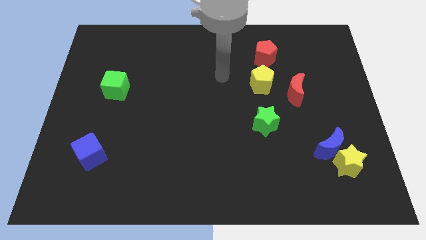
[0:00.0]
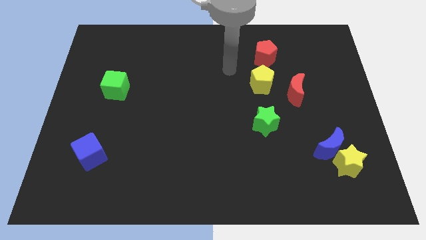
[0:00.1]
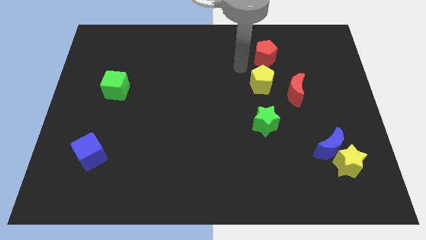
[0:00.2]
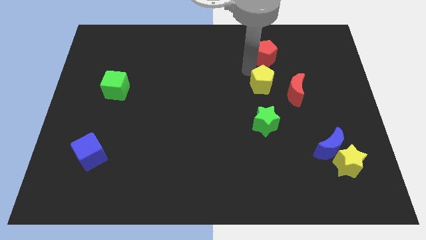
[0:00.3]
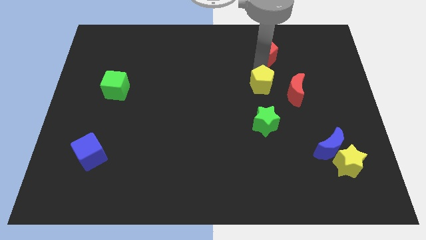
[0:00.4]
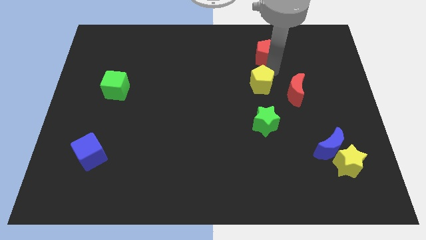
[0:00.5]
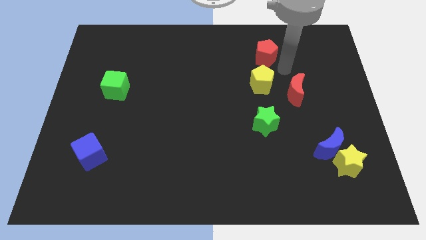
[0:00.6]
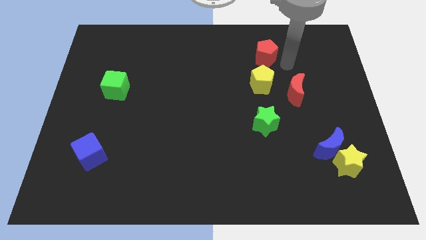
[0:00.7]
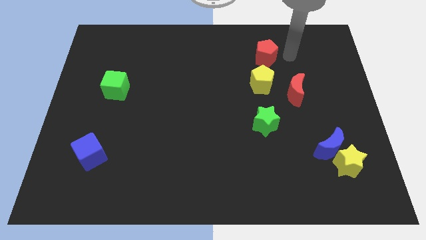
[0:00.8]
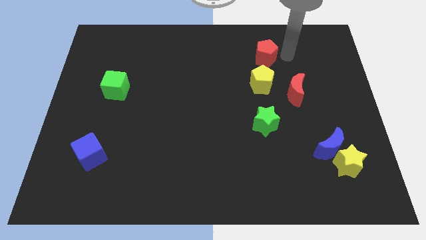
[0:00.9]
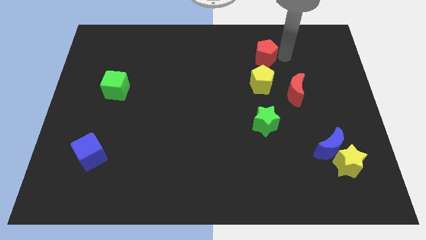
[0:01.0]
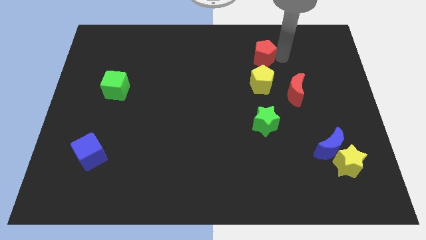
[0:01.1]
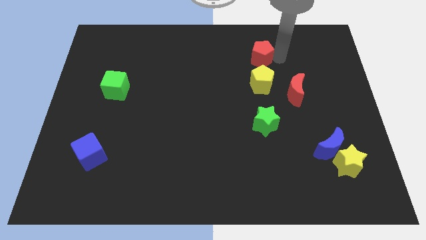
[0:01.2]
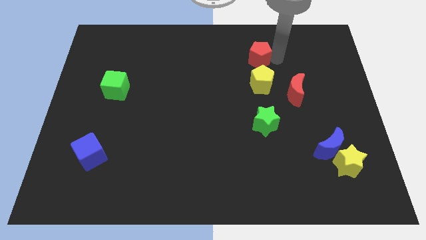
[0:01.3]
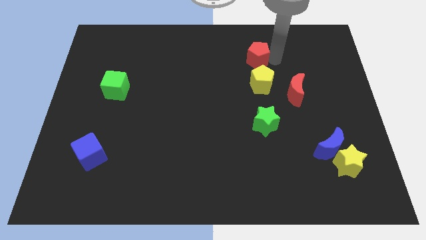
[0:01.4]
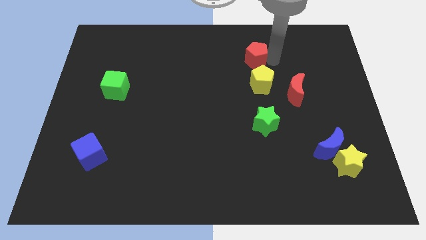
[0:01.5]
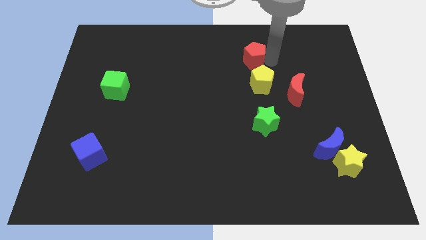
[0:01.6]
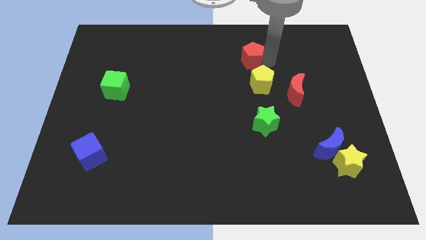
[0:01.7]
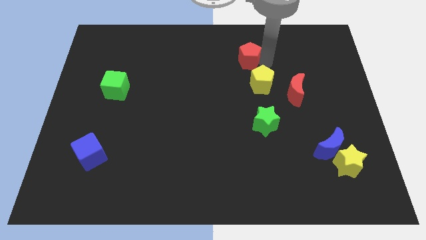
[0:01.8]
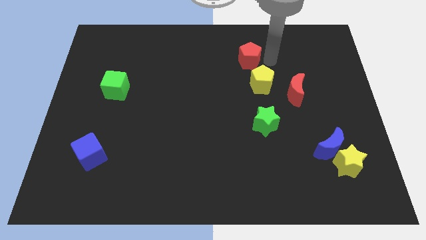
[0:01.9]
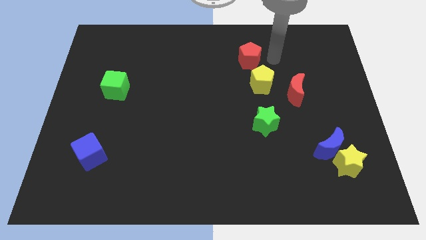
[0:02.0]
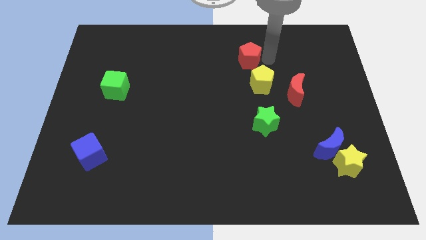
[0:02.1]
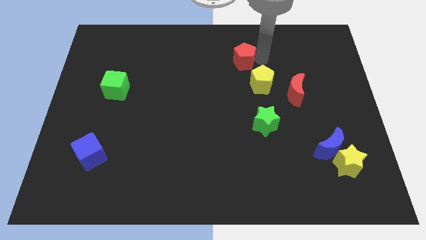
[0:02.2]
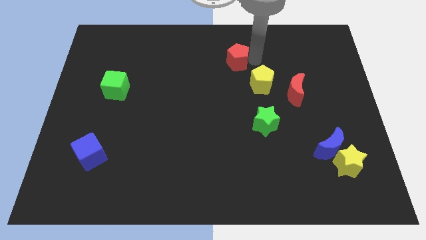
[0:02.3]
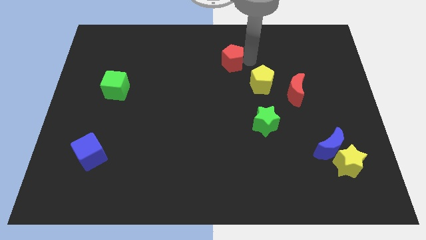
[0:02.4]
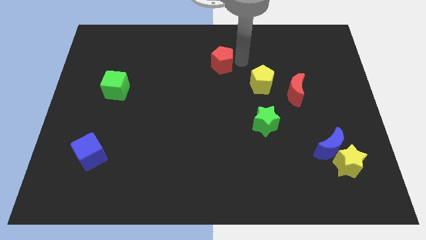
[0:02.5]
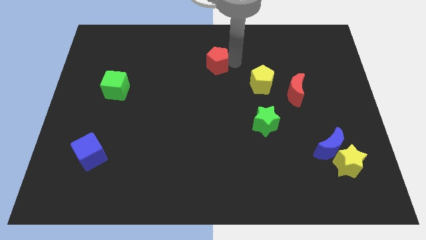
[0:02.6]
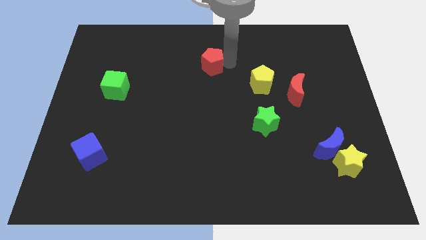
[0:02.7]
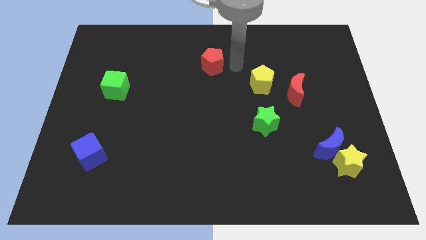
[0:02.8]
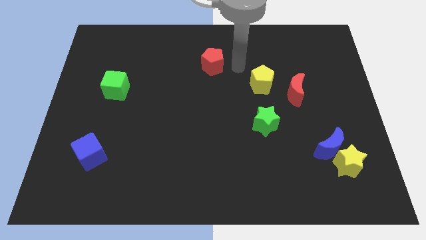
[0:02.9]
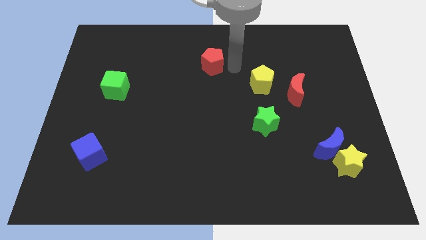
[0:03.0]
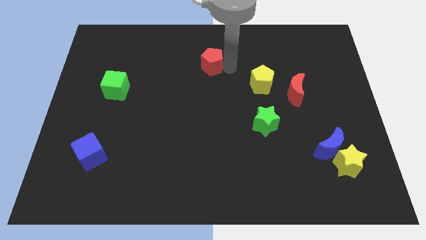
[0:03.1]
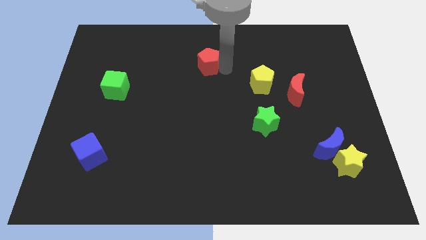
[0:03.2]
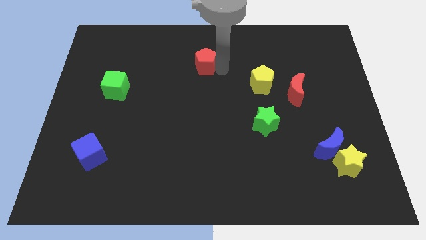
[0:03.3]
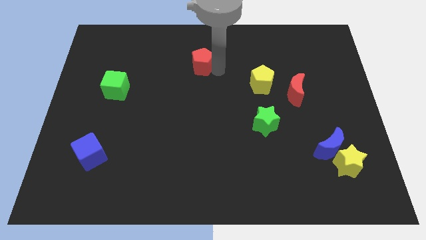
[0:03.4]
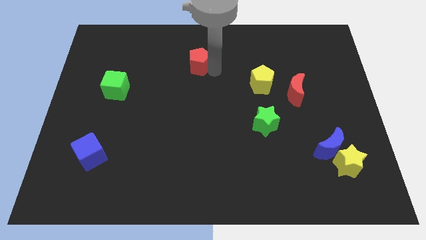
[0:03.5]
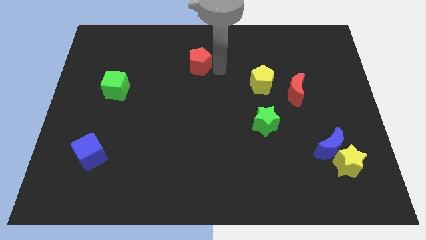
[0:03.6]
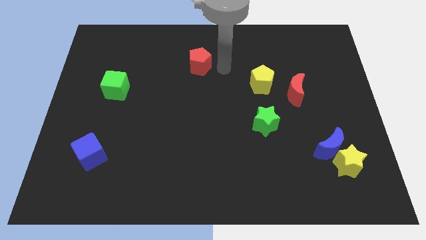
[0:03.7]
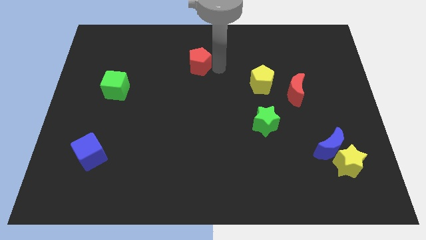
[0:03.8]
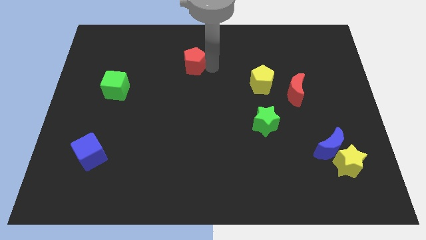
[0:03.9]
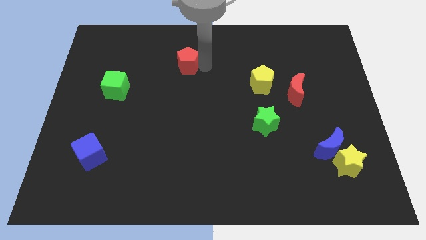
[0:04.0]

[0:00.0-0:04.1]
slide the red pentagon left

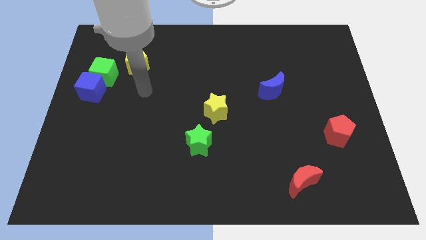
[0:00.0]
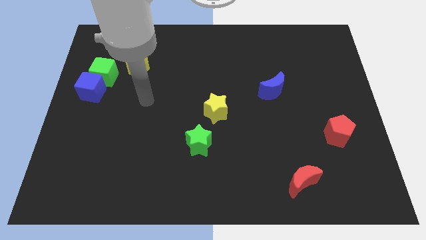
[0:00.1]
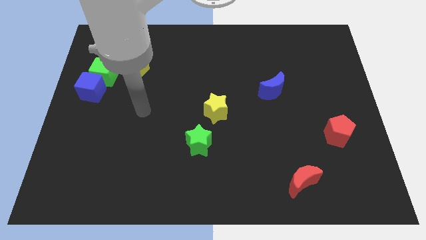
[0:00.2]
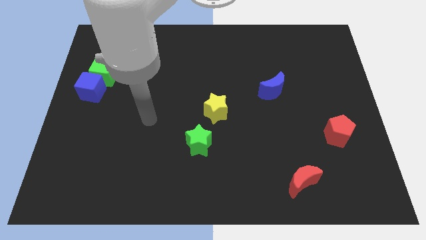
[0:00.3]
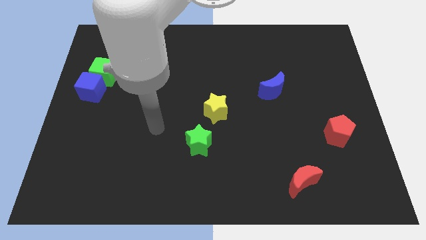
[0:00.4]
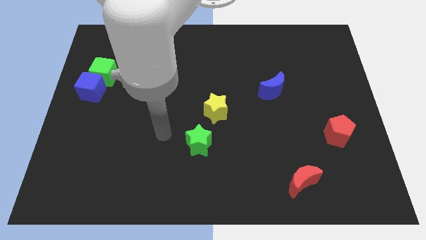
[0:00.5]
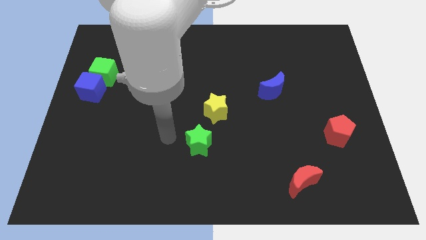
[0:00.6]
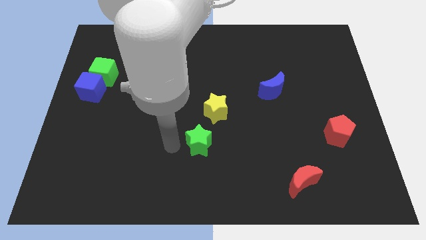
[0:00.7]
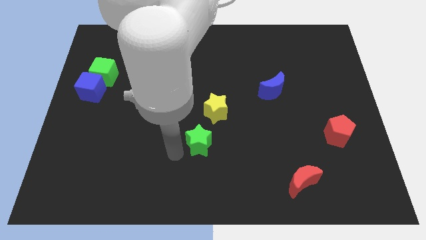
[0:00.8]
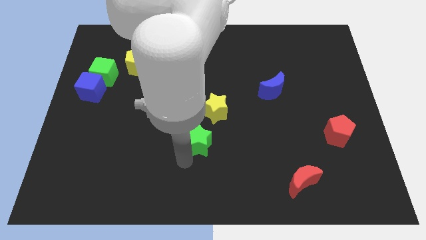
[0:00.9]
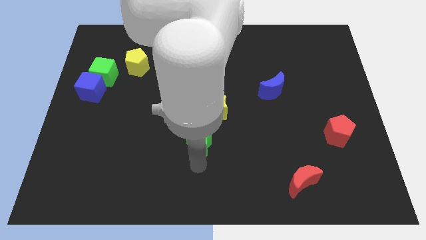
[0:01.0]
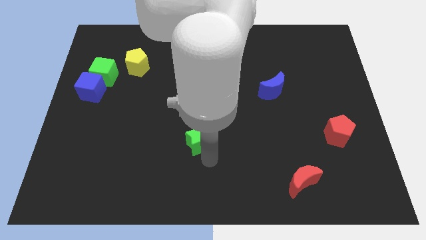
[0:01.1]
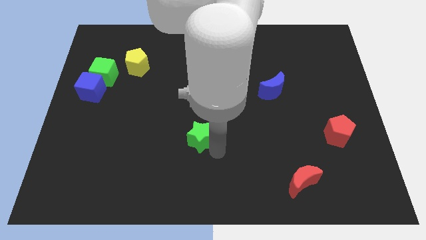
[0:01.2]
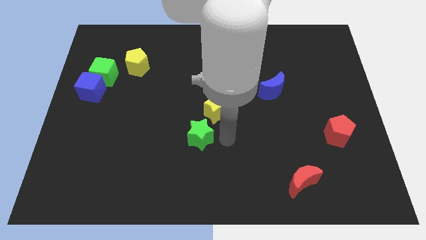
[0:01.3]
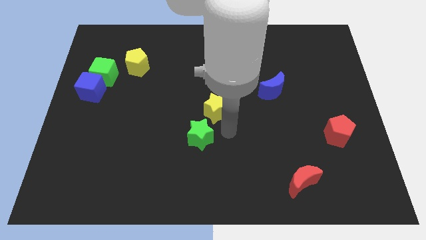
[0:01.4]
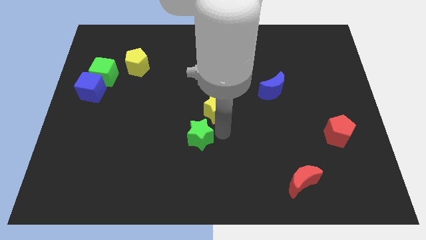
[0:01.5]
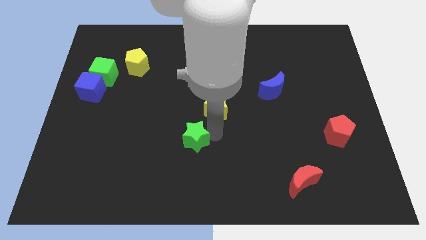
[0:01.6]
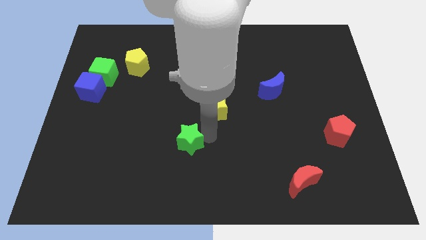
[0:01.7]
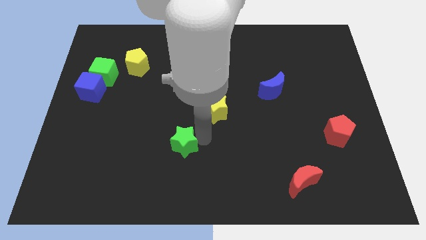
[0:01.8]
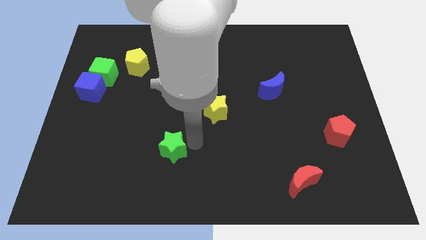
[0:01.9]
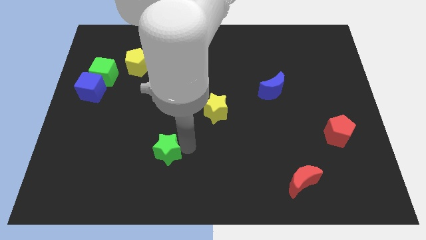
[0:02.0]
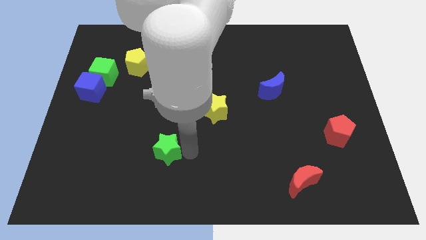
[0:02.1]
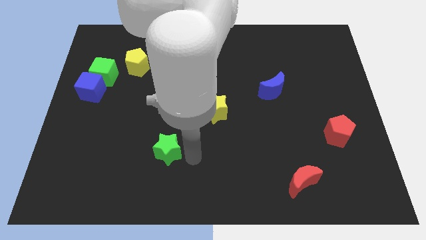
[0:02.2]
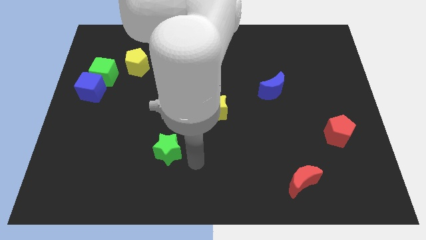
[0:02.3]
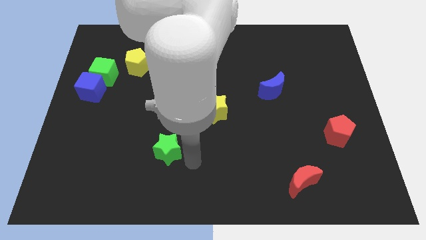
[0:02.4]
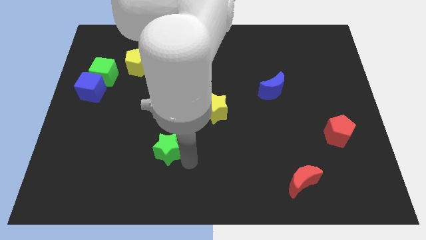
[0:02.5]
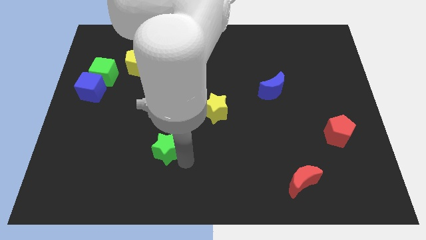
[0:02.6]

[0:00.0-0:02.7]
move the green star a little bit left

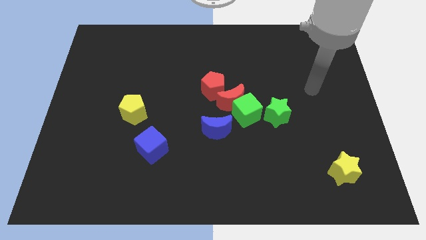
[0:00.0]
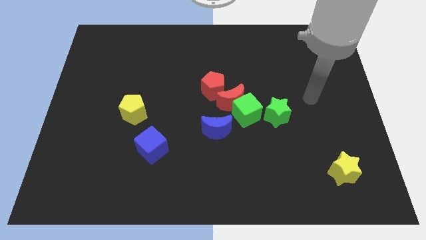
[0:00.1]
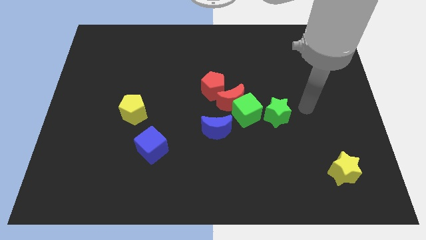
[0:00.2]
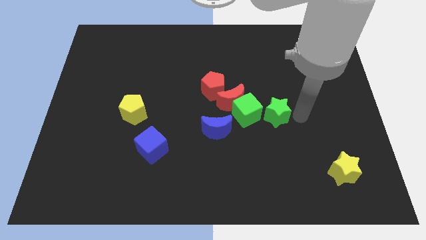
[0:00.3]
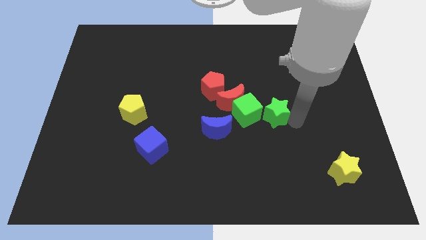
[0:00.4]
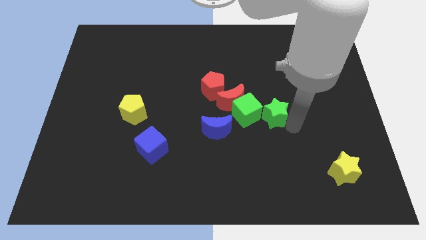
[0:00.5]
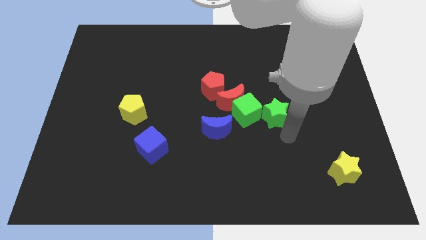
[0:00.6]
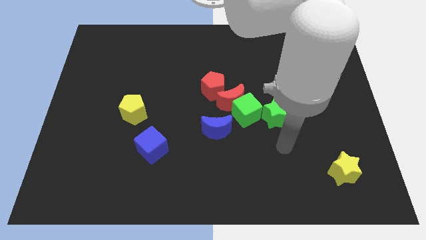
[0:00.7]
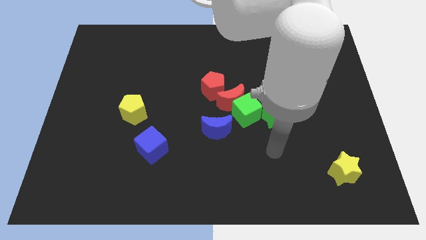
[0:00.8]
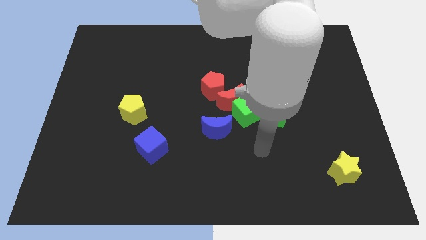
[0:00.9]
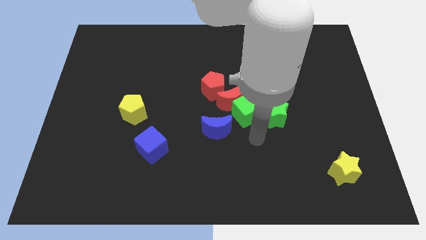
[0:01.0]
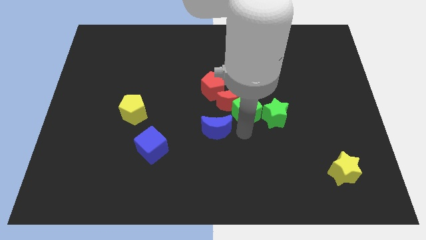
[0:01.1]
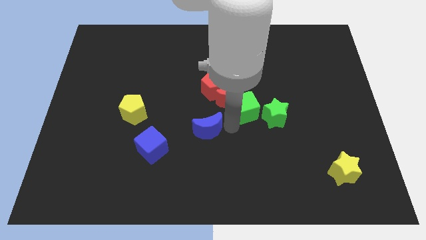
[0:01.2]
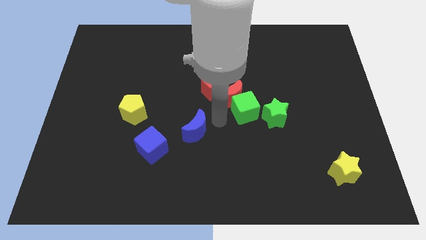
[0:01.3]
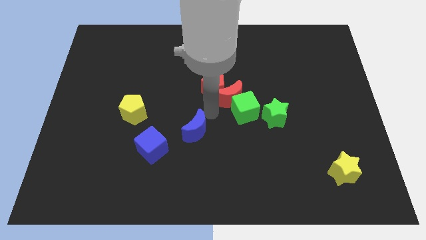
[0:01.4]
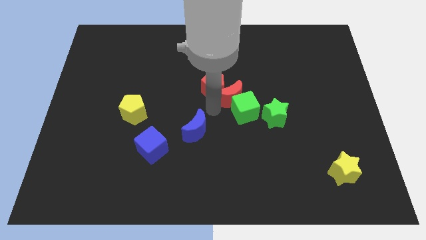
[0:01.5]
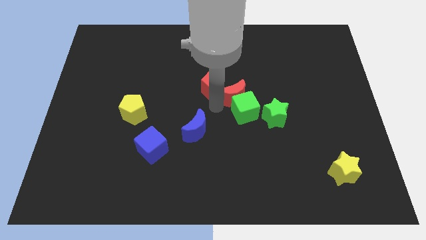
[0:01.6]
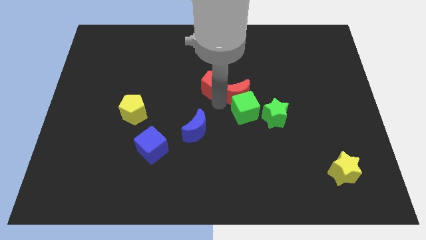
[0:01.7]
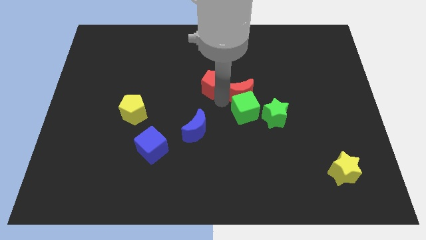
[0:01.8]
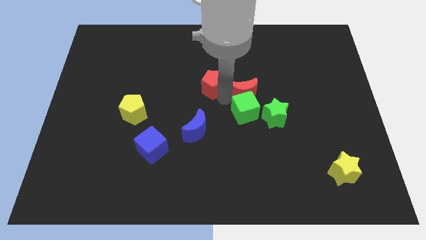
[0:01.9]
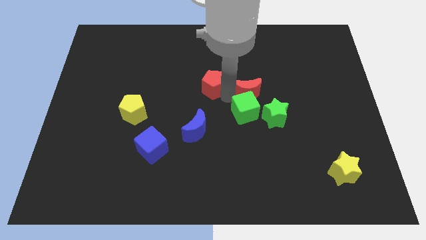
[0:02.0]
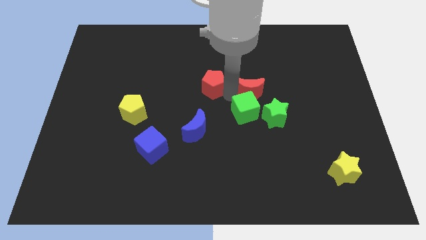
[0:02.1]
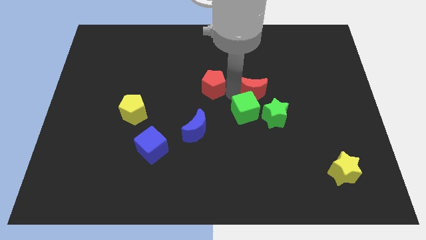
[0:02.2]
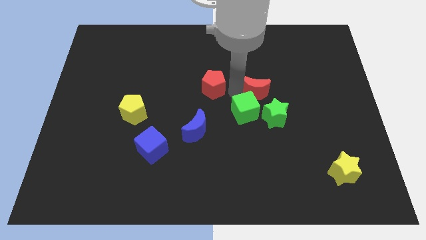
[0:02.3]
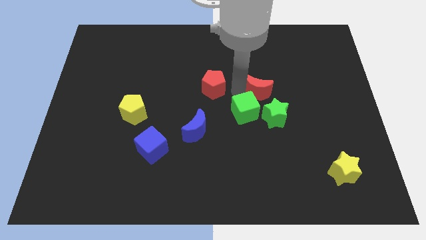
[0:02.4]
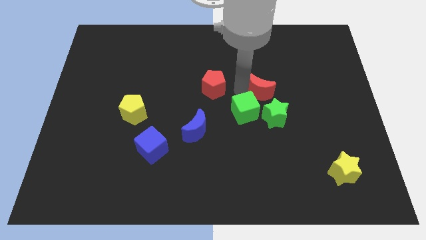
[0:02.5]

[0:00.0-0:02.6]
slide the red moon slightly diagonally up and to the right
